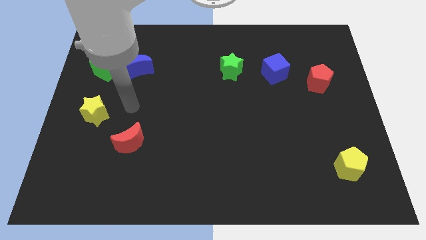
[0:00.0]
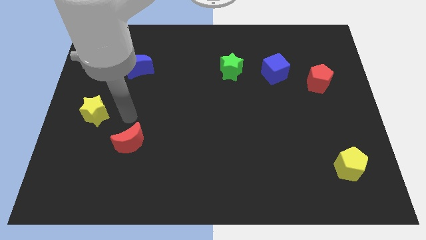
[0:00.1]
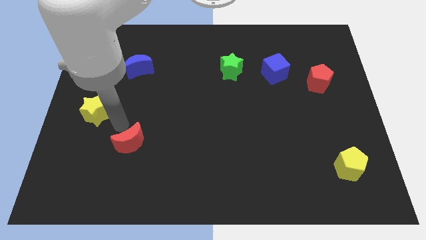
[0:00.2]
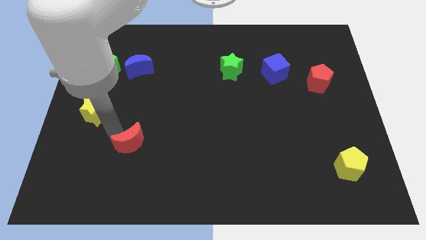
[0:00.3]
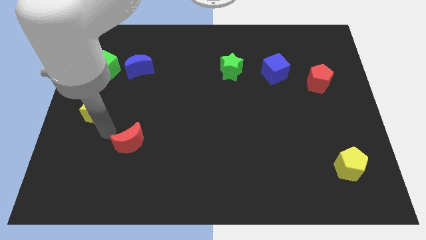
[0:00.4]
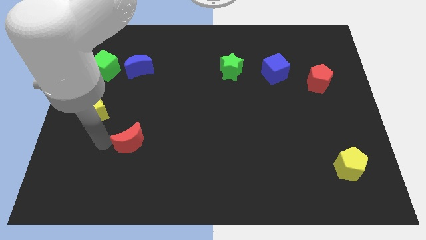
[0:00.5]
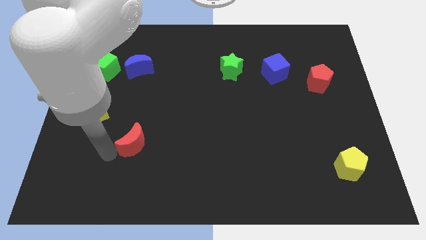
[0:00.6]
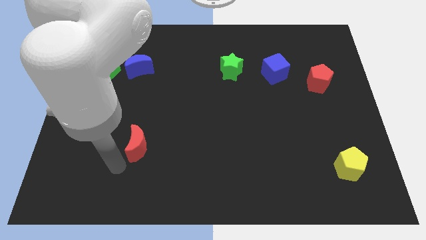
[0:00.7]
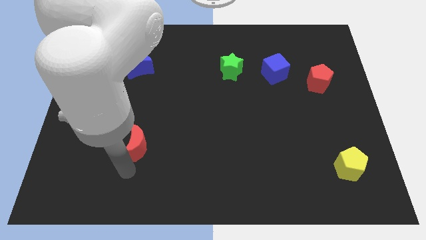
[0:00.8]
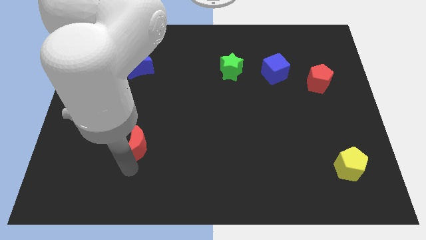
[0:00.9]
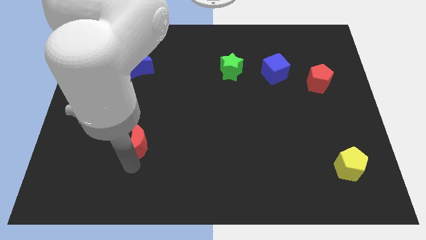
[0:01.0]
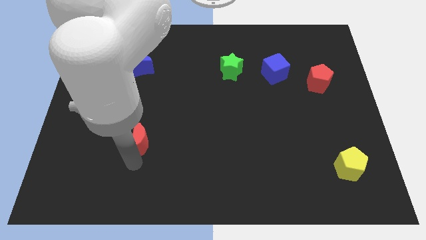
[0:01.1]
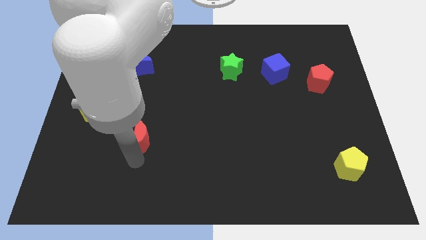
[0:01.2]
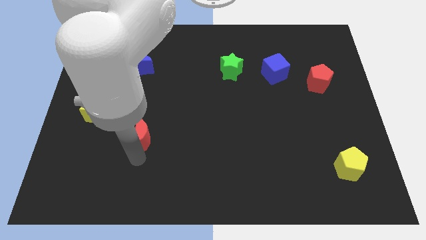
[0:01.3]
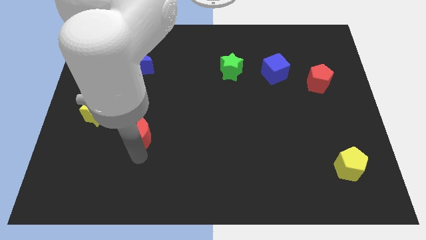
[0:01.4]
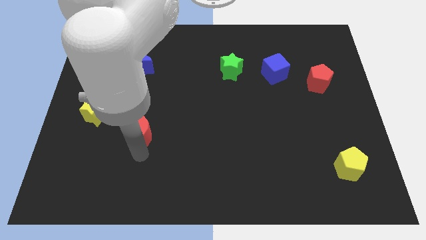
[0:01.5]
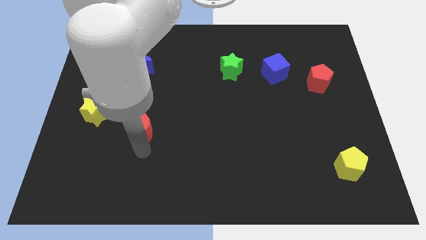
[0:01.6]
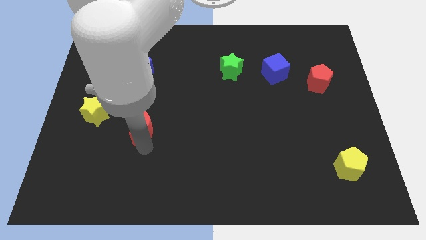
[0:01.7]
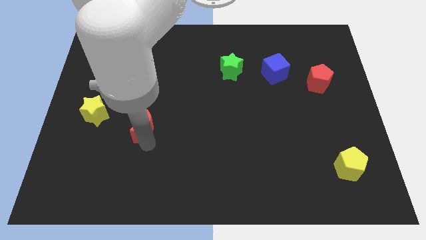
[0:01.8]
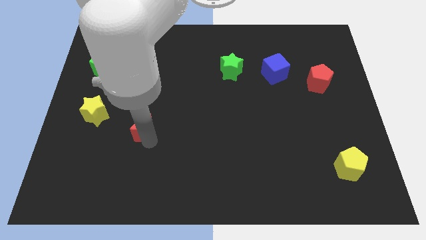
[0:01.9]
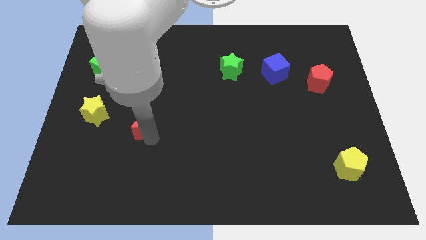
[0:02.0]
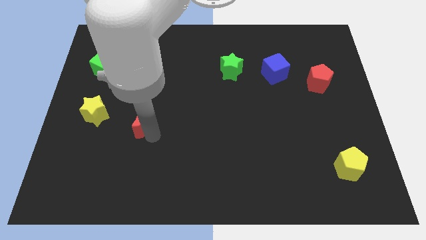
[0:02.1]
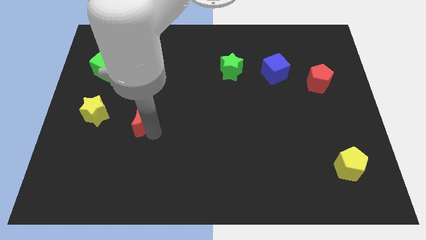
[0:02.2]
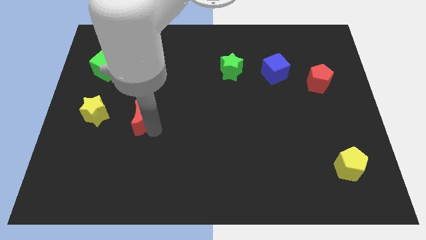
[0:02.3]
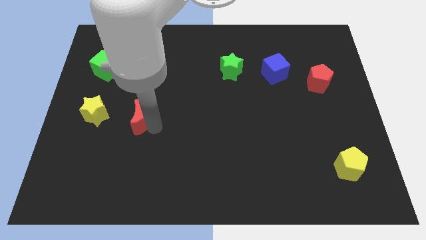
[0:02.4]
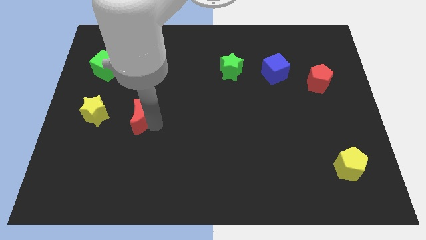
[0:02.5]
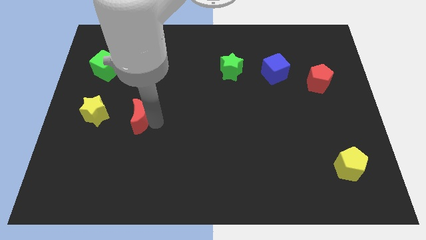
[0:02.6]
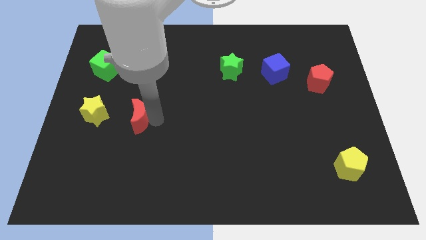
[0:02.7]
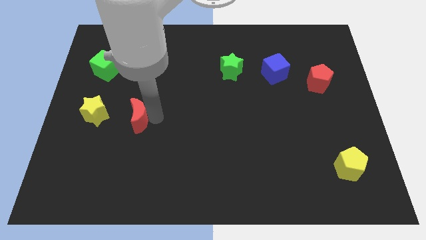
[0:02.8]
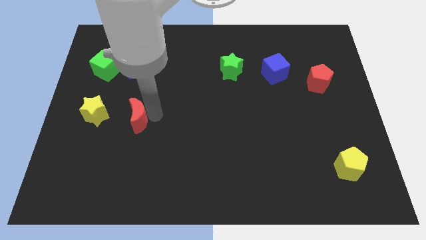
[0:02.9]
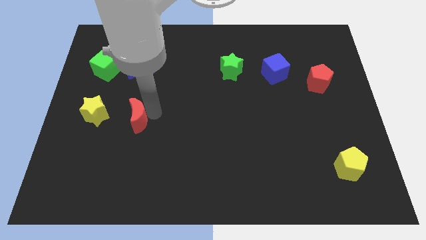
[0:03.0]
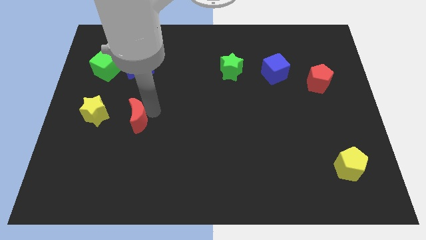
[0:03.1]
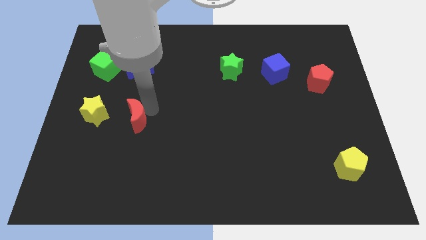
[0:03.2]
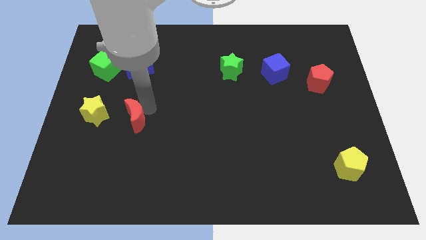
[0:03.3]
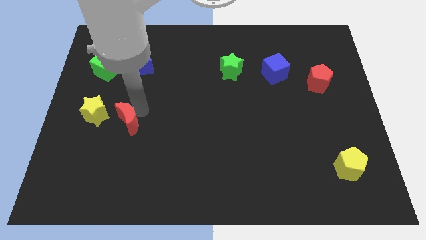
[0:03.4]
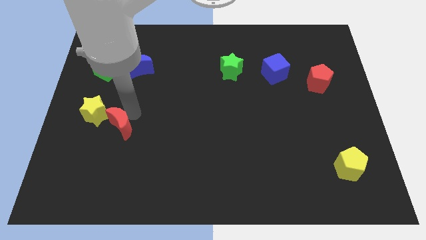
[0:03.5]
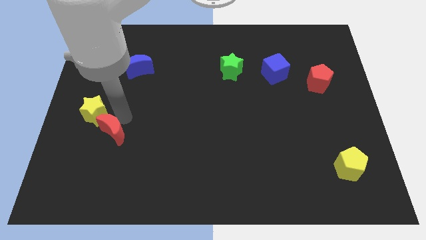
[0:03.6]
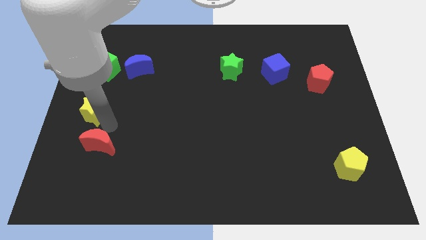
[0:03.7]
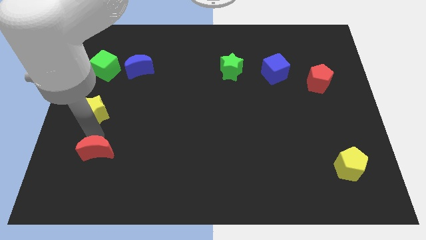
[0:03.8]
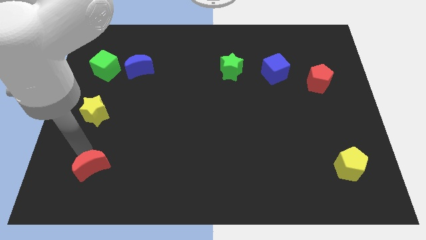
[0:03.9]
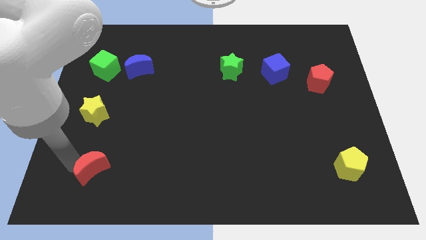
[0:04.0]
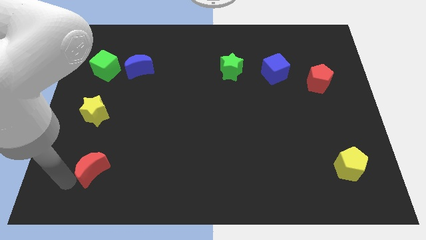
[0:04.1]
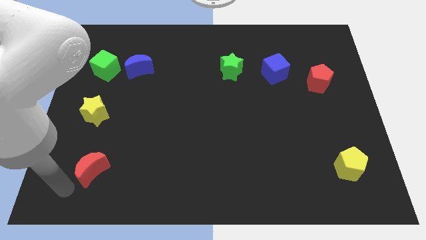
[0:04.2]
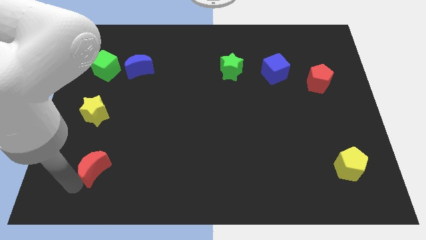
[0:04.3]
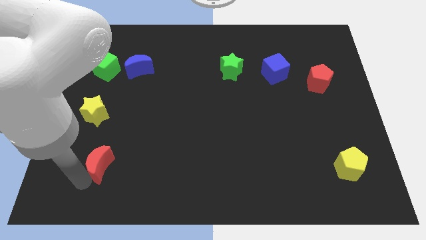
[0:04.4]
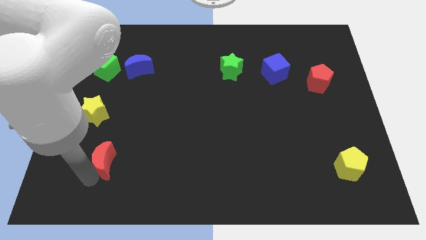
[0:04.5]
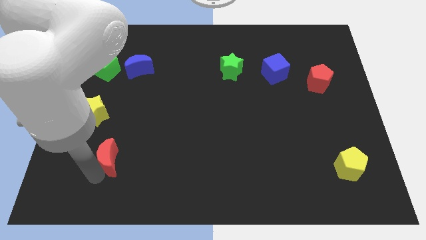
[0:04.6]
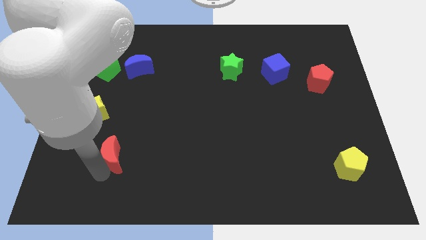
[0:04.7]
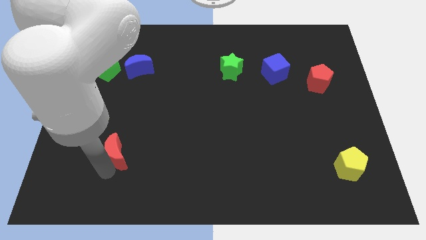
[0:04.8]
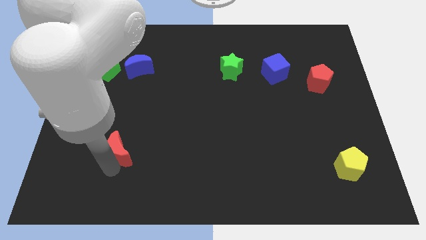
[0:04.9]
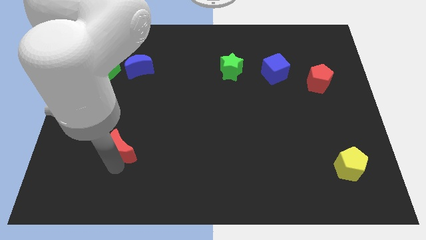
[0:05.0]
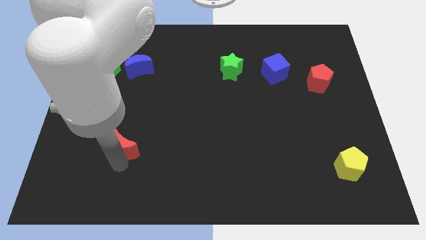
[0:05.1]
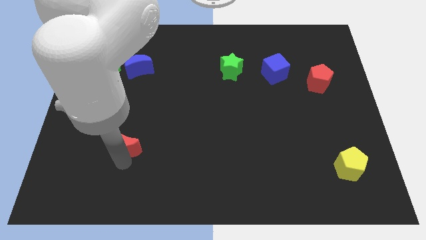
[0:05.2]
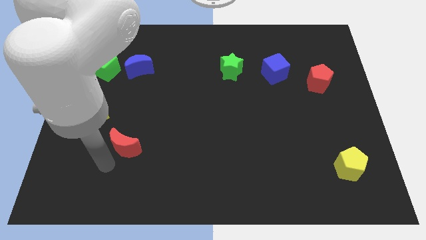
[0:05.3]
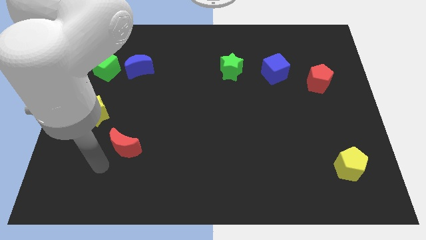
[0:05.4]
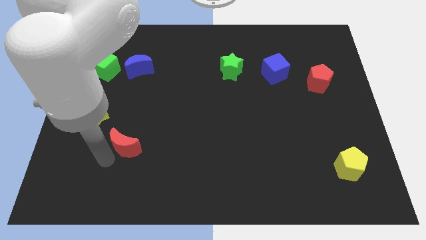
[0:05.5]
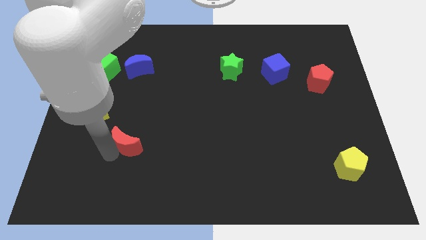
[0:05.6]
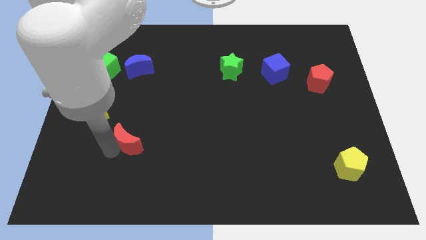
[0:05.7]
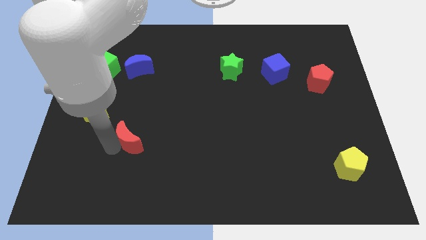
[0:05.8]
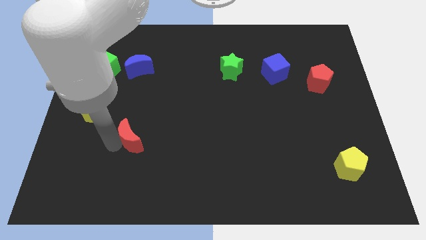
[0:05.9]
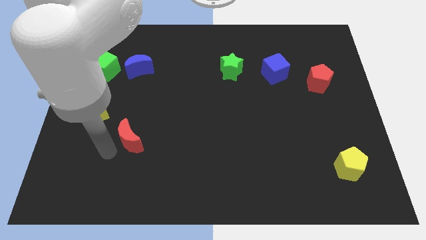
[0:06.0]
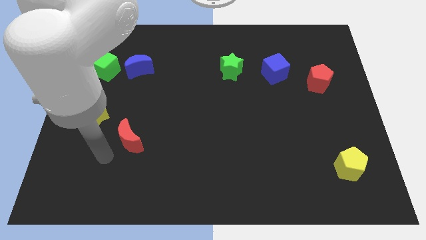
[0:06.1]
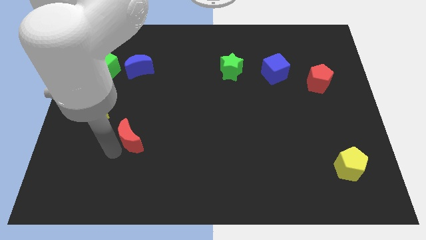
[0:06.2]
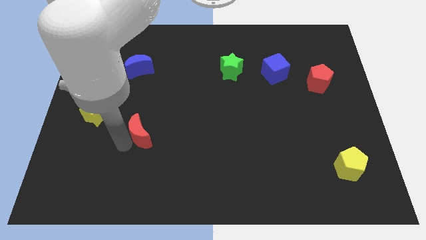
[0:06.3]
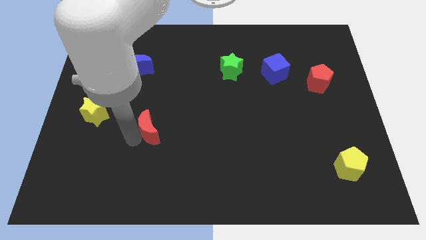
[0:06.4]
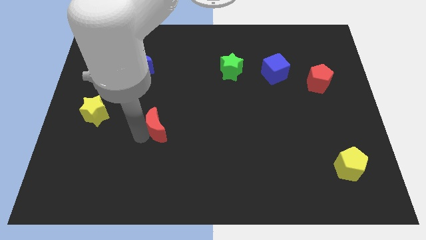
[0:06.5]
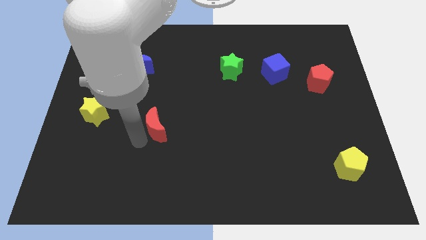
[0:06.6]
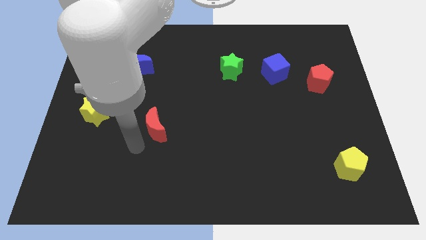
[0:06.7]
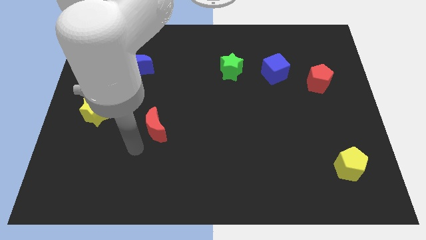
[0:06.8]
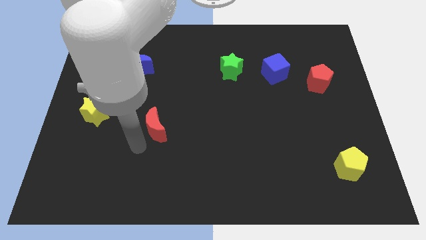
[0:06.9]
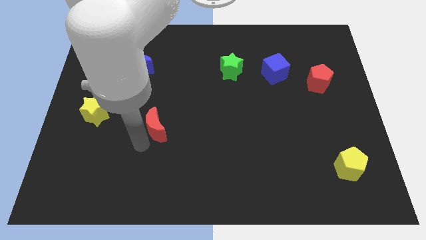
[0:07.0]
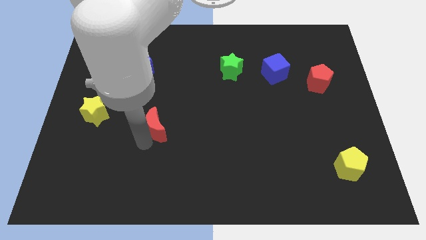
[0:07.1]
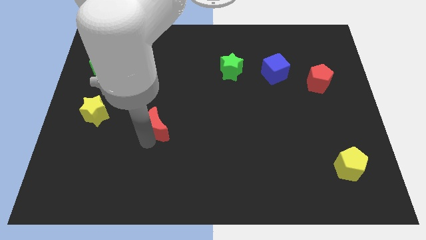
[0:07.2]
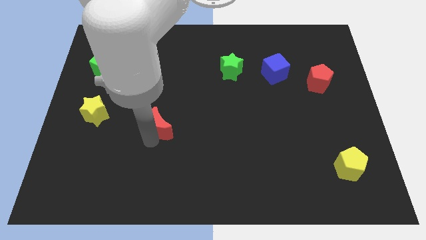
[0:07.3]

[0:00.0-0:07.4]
slide the red moon diagonally up and to the right a little bit

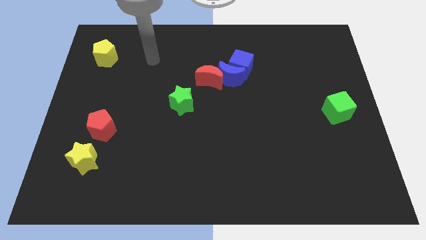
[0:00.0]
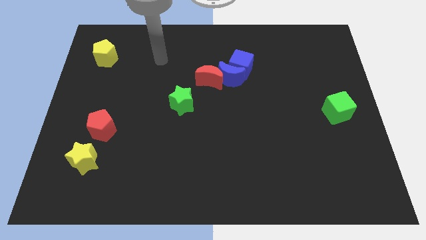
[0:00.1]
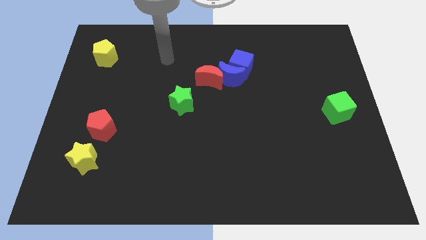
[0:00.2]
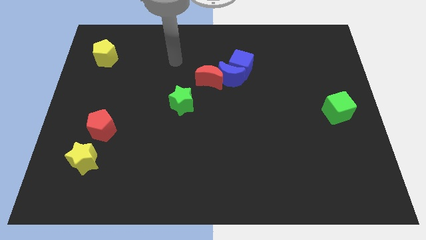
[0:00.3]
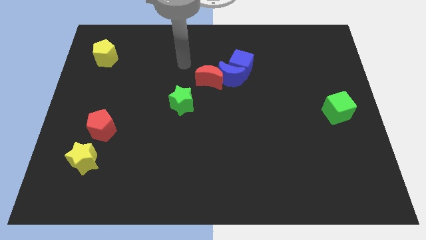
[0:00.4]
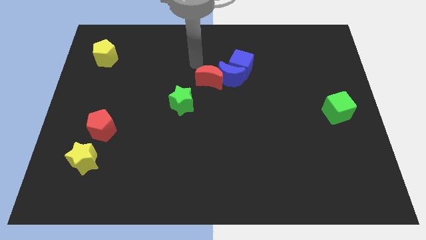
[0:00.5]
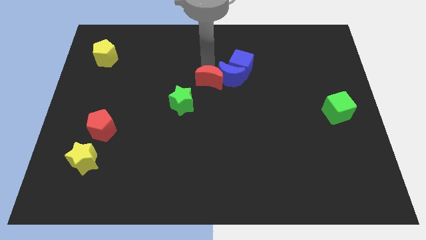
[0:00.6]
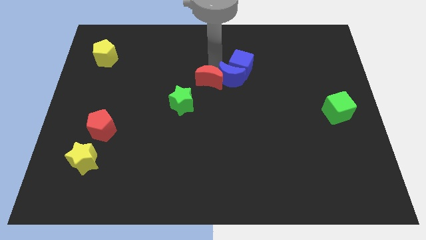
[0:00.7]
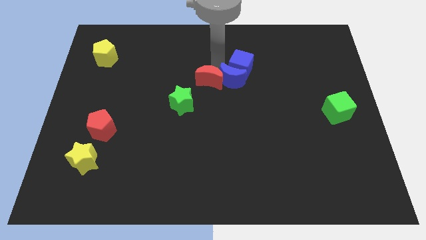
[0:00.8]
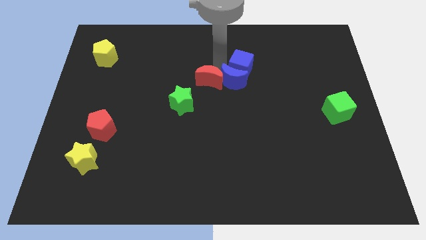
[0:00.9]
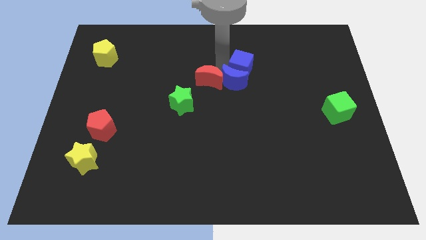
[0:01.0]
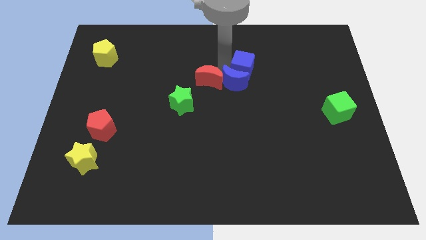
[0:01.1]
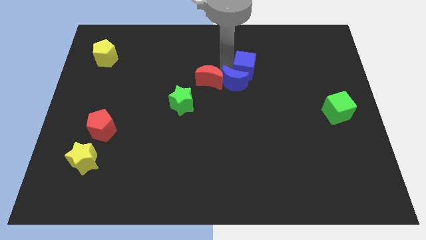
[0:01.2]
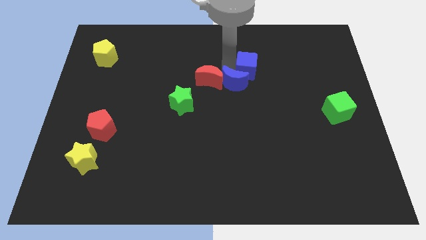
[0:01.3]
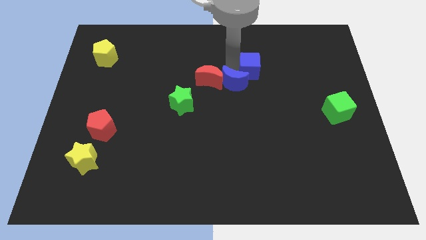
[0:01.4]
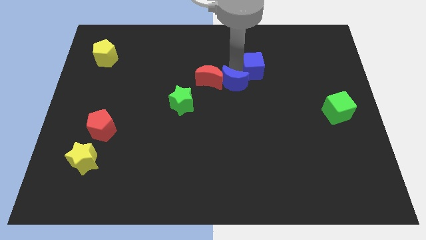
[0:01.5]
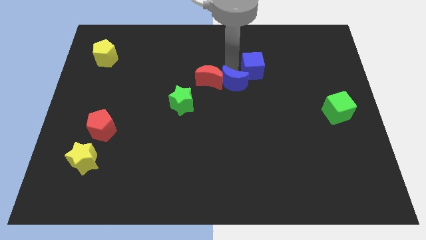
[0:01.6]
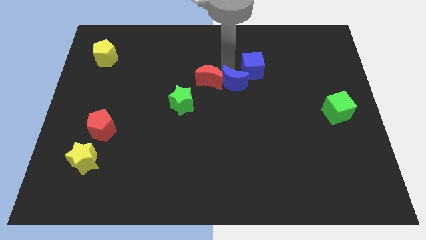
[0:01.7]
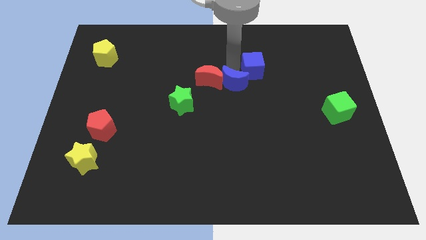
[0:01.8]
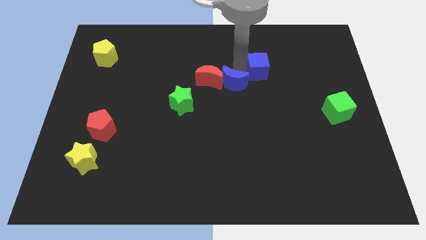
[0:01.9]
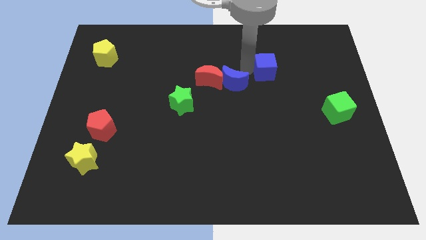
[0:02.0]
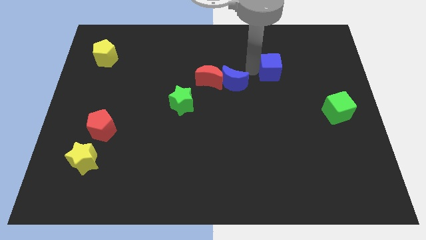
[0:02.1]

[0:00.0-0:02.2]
move the blue cube to the right a little
